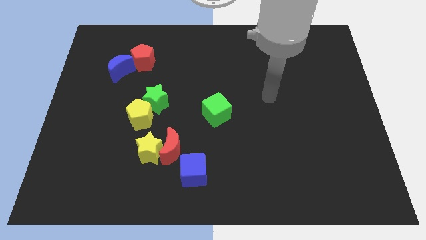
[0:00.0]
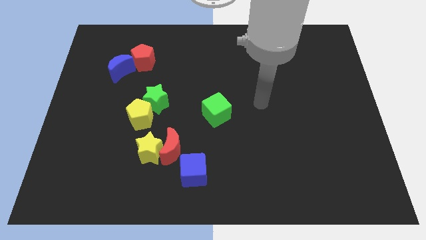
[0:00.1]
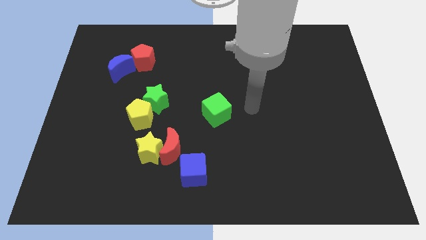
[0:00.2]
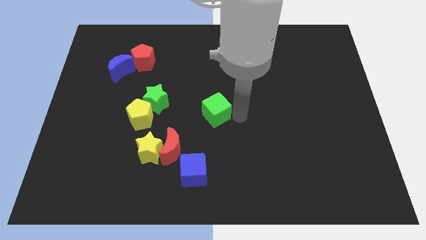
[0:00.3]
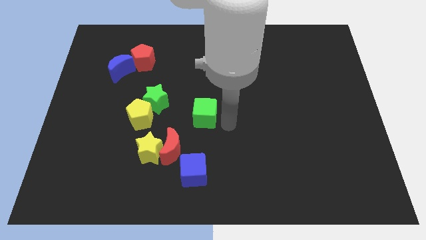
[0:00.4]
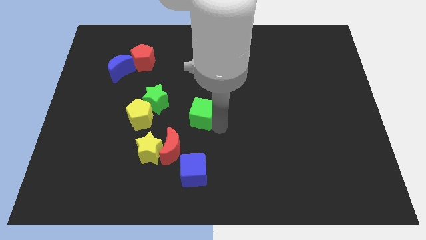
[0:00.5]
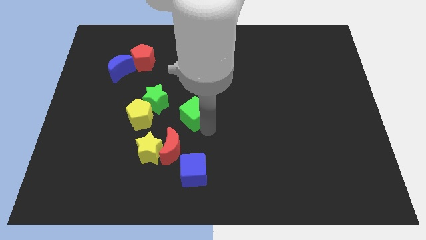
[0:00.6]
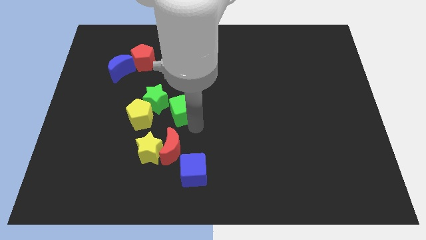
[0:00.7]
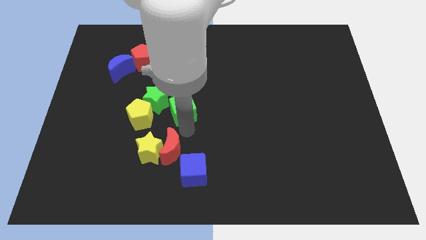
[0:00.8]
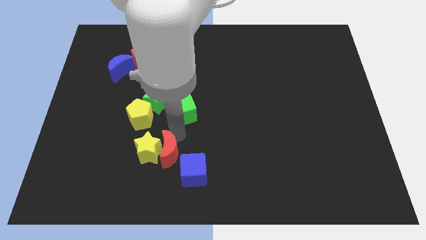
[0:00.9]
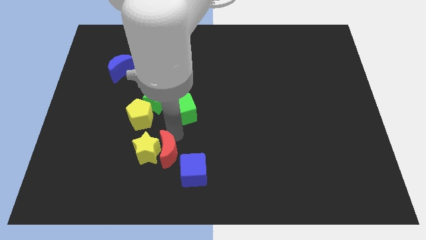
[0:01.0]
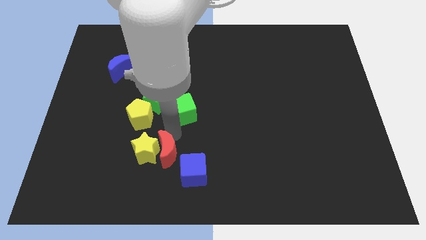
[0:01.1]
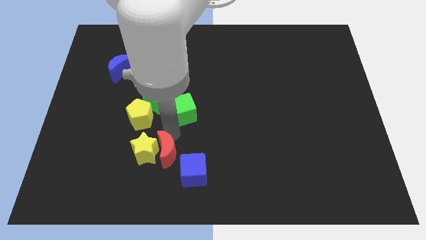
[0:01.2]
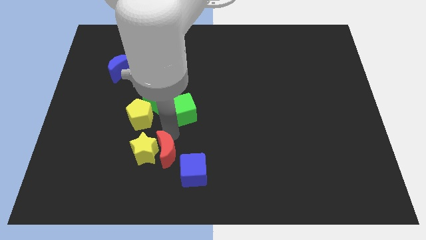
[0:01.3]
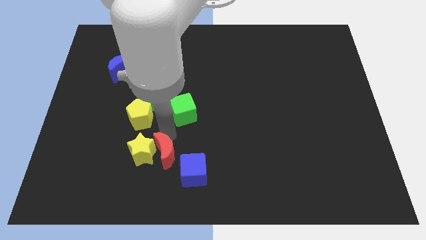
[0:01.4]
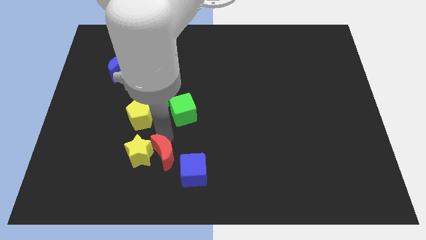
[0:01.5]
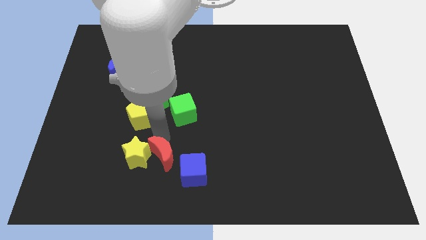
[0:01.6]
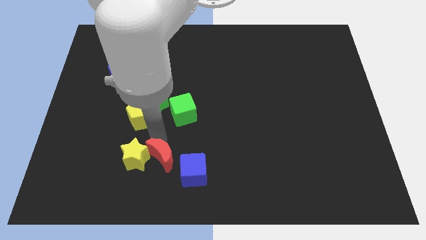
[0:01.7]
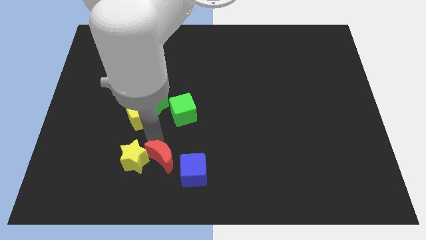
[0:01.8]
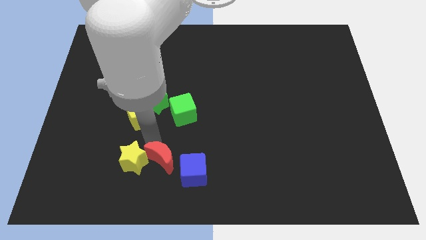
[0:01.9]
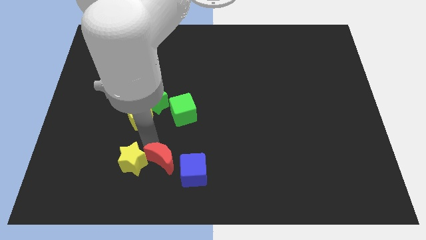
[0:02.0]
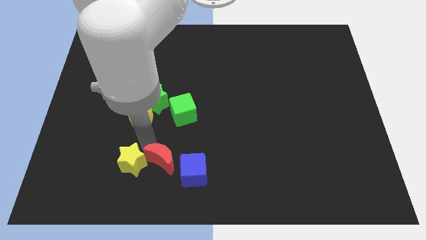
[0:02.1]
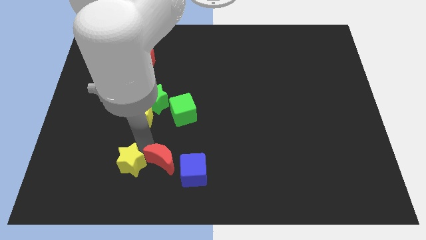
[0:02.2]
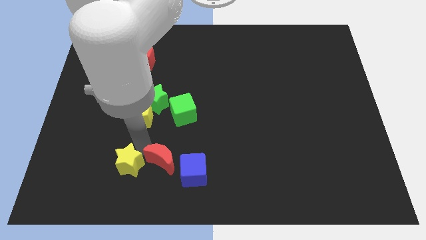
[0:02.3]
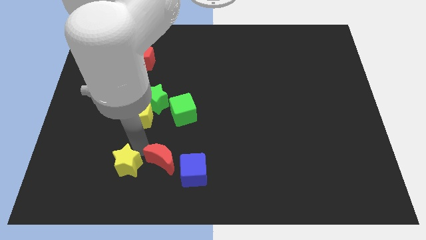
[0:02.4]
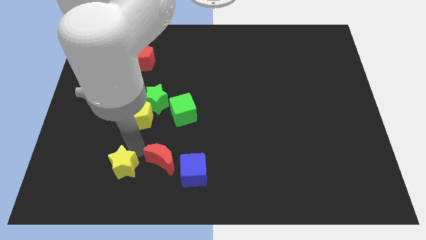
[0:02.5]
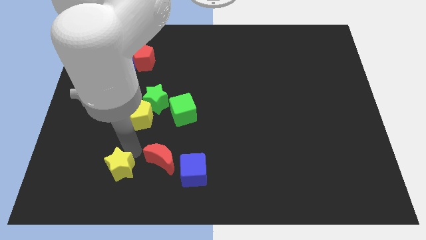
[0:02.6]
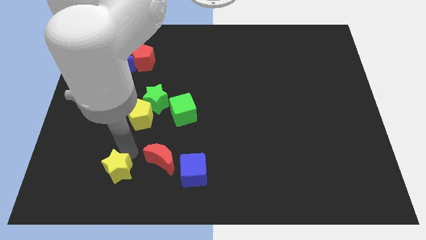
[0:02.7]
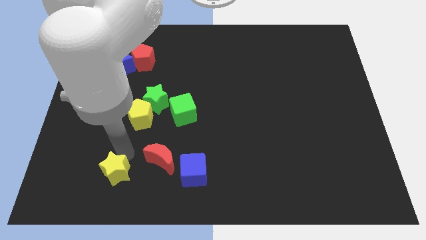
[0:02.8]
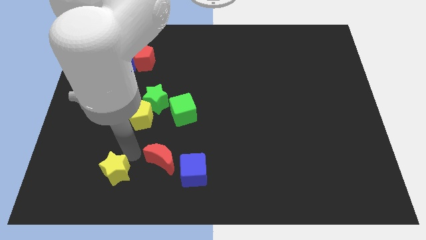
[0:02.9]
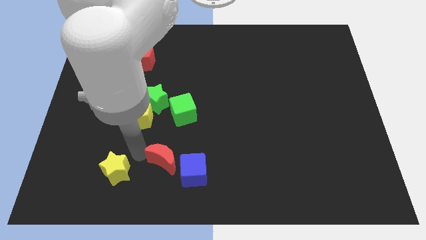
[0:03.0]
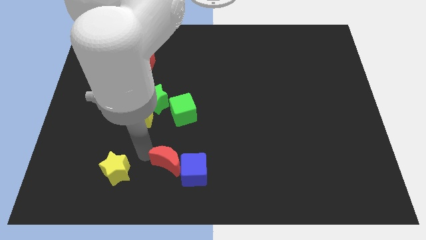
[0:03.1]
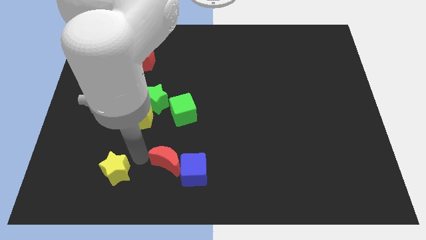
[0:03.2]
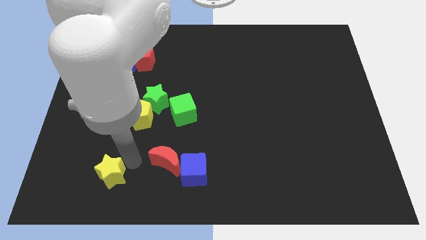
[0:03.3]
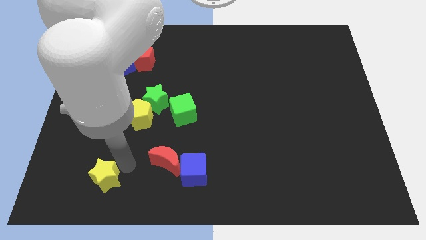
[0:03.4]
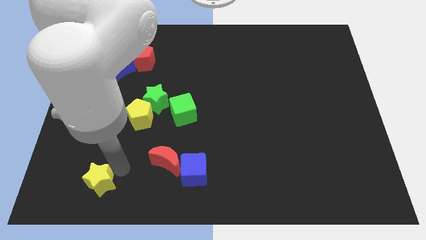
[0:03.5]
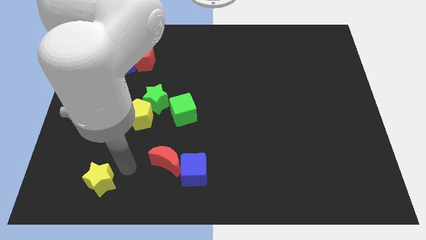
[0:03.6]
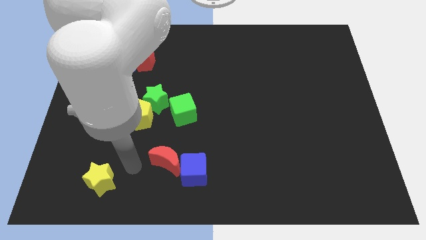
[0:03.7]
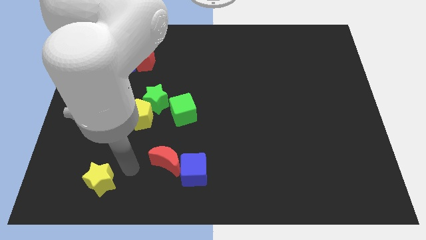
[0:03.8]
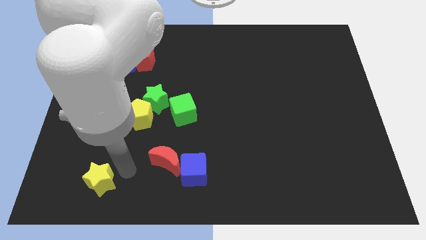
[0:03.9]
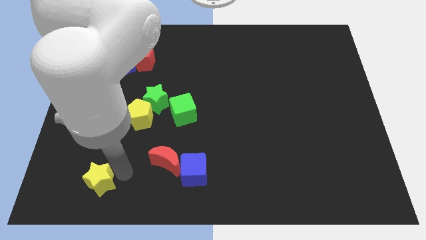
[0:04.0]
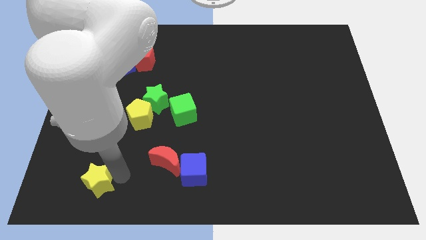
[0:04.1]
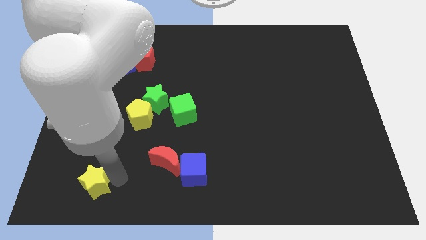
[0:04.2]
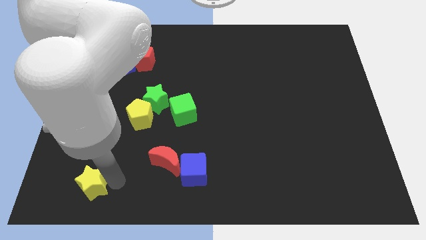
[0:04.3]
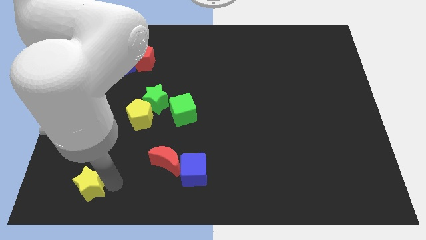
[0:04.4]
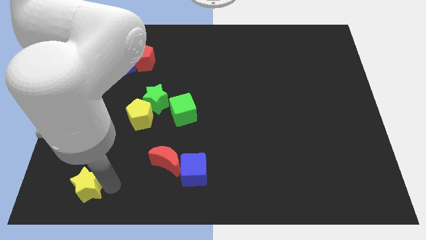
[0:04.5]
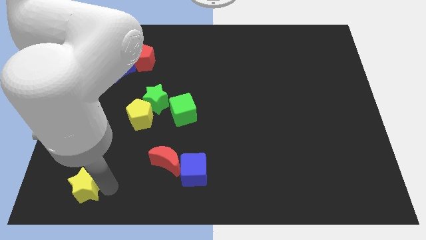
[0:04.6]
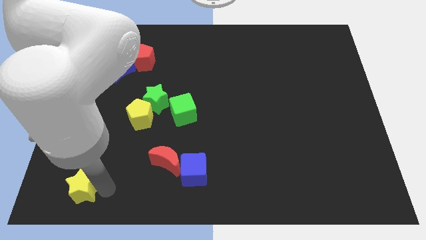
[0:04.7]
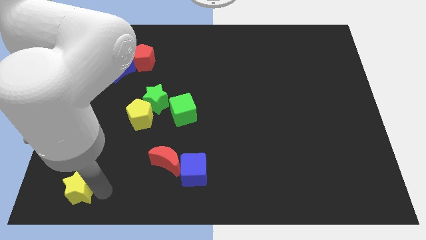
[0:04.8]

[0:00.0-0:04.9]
put the yellow star to the lower left corner

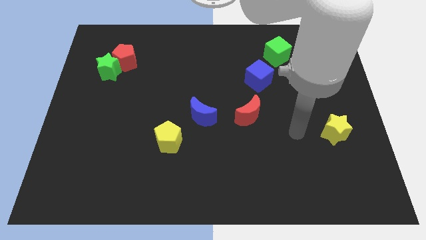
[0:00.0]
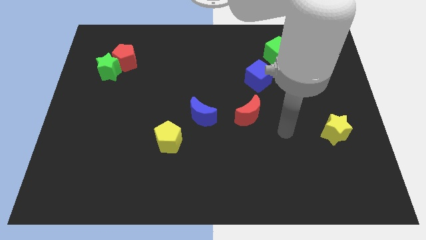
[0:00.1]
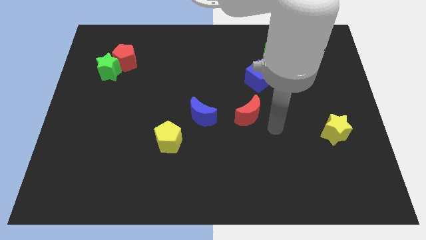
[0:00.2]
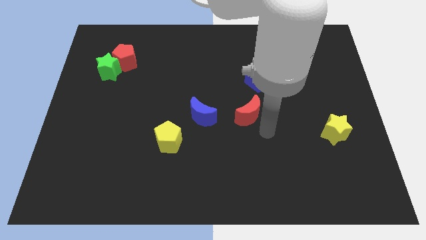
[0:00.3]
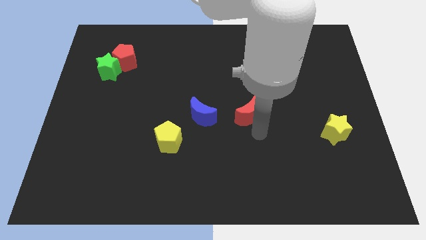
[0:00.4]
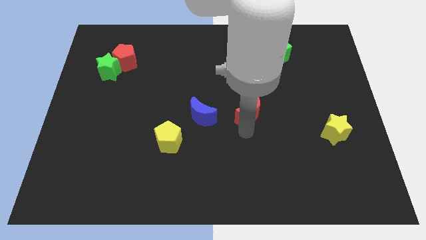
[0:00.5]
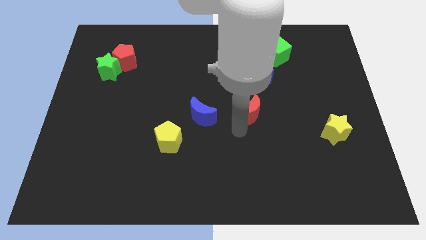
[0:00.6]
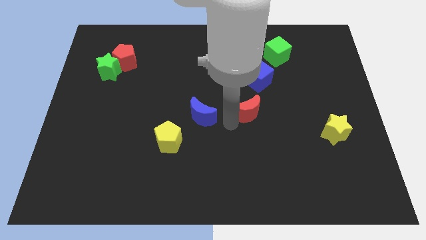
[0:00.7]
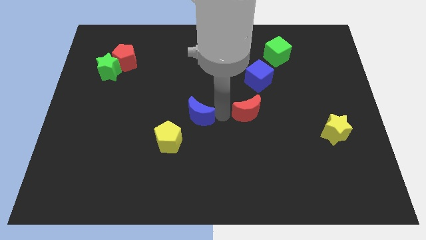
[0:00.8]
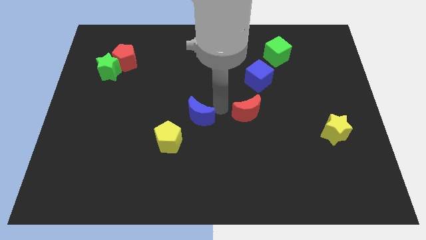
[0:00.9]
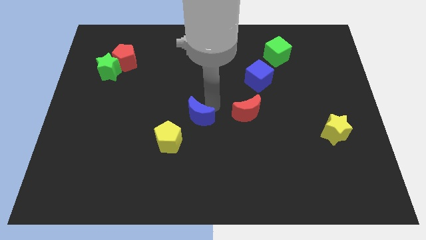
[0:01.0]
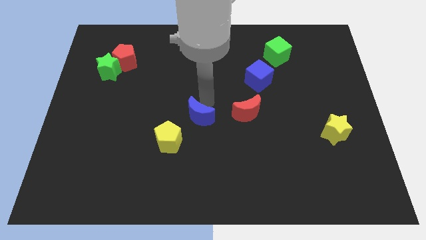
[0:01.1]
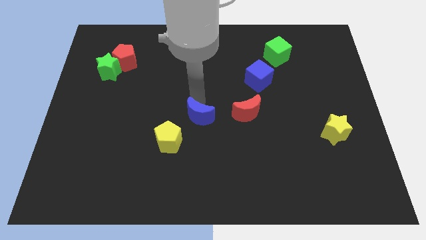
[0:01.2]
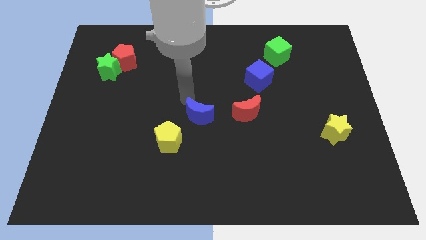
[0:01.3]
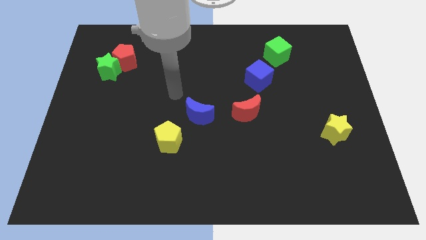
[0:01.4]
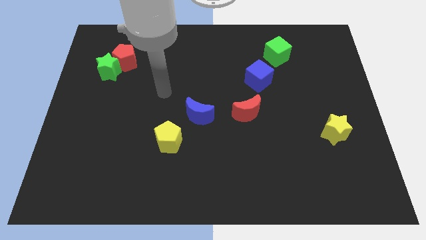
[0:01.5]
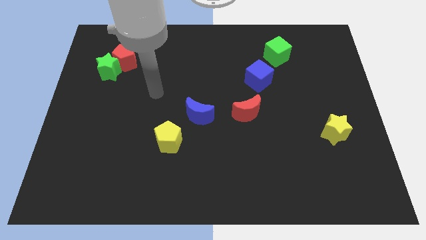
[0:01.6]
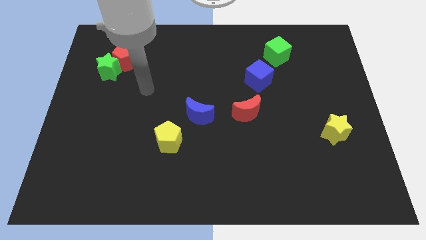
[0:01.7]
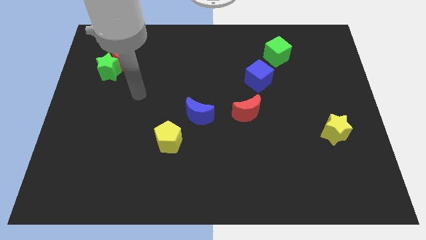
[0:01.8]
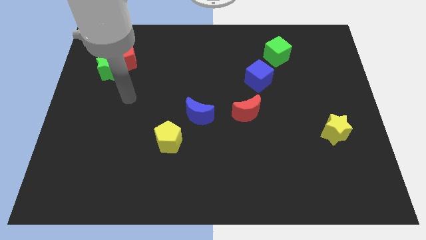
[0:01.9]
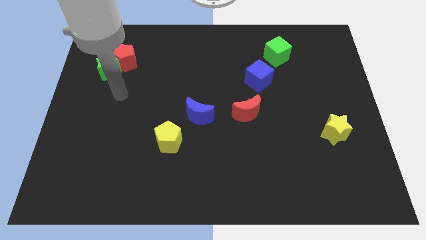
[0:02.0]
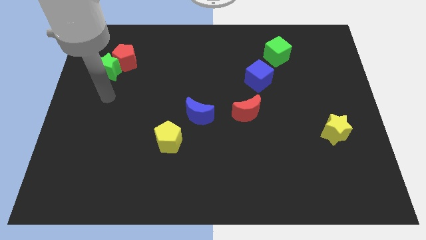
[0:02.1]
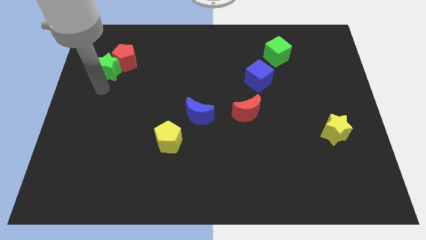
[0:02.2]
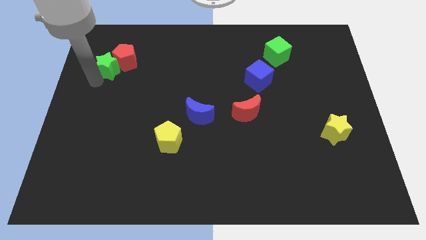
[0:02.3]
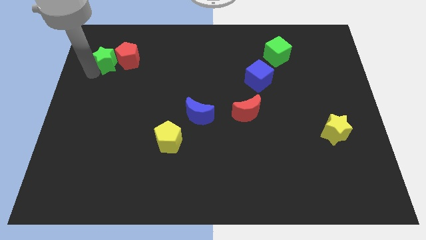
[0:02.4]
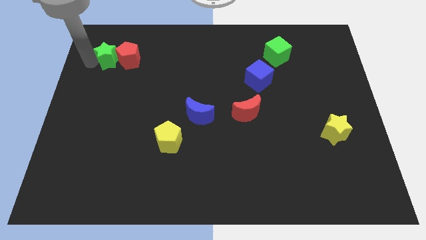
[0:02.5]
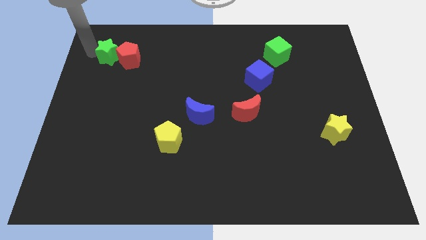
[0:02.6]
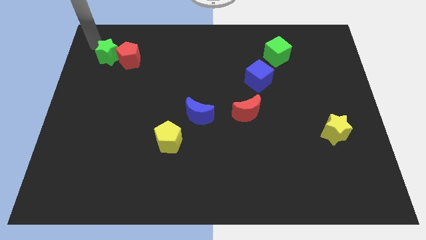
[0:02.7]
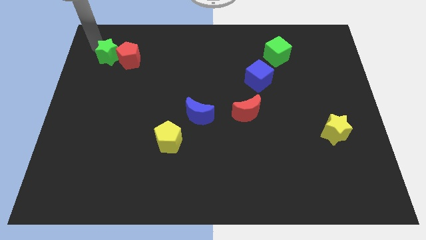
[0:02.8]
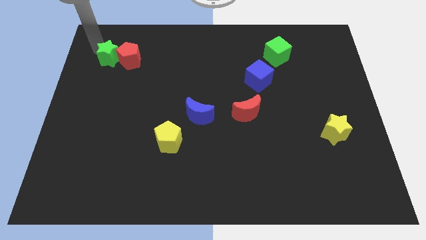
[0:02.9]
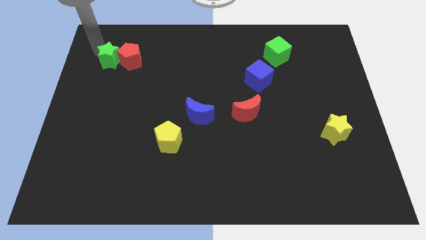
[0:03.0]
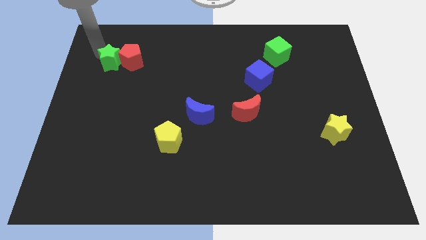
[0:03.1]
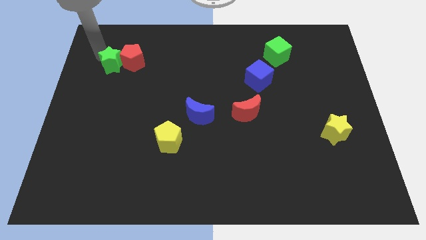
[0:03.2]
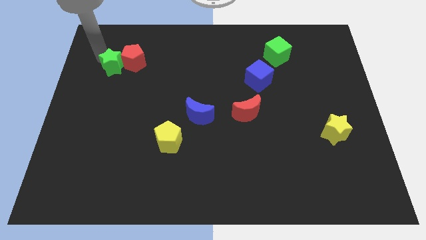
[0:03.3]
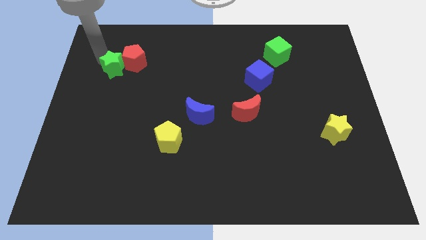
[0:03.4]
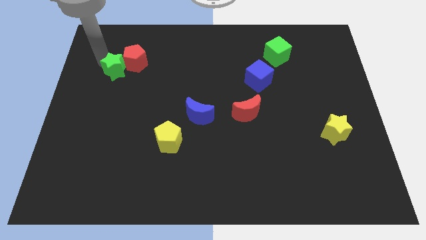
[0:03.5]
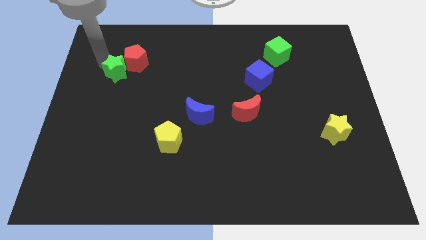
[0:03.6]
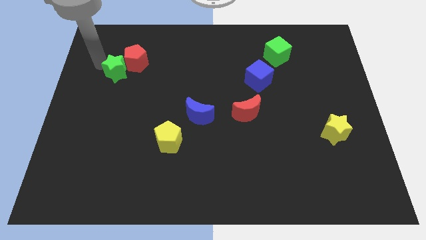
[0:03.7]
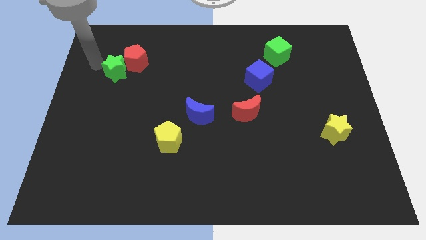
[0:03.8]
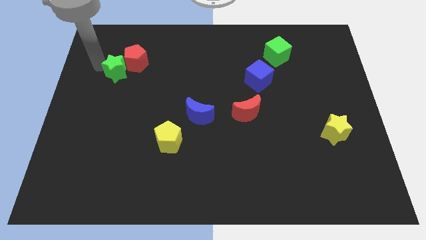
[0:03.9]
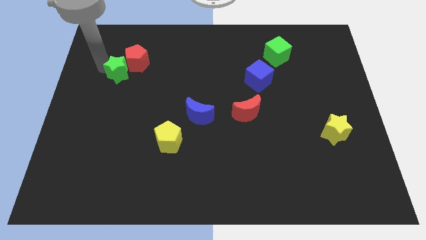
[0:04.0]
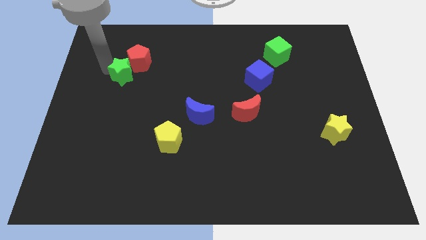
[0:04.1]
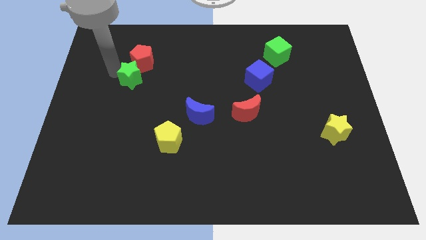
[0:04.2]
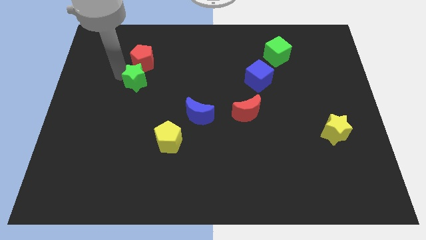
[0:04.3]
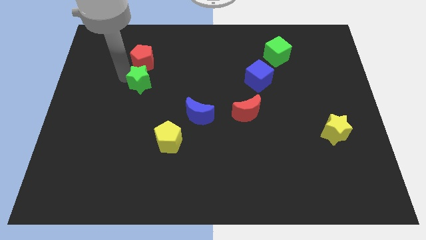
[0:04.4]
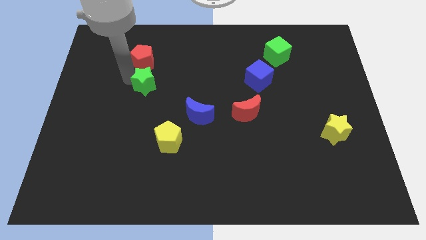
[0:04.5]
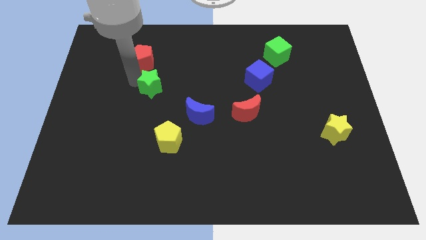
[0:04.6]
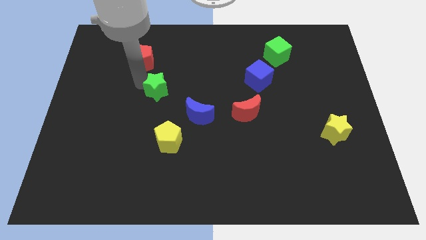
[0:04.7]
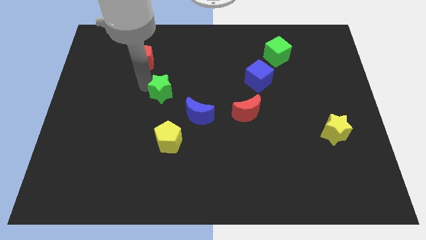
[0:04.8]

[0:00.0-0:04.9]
push the green star to the middle
